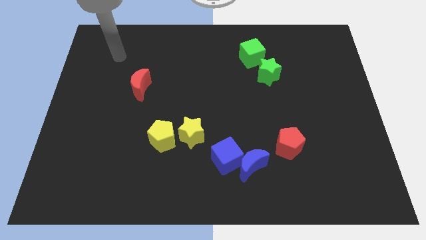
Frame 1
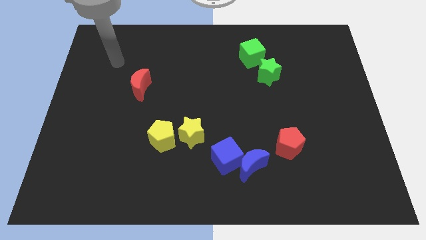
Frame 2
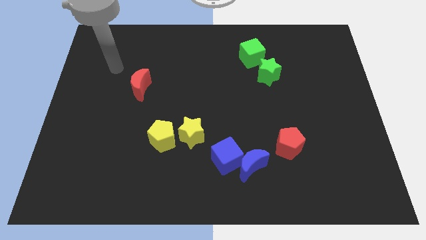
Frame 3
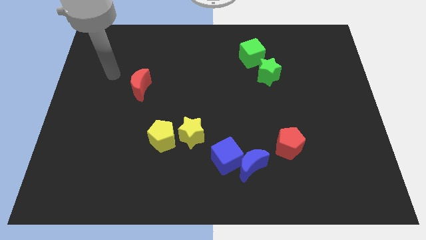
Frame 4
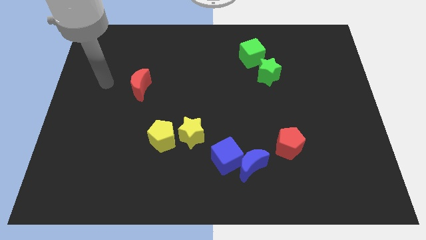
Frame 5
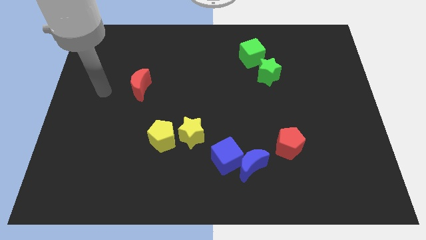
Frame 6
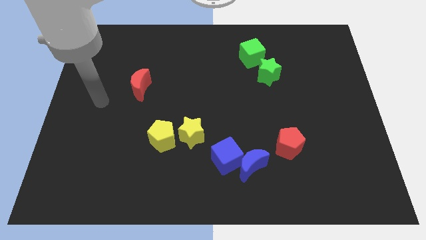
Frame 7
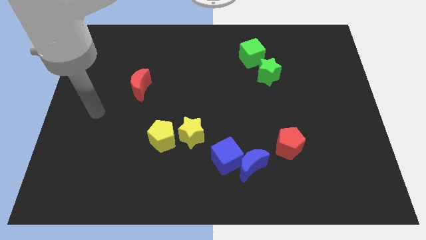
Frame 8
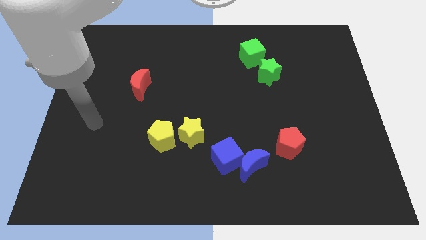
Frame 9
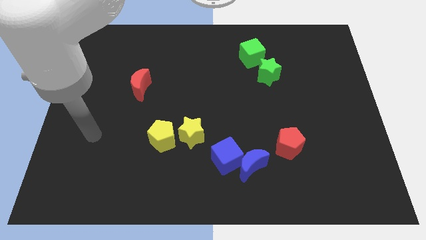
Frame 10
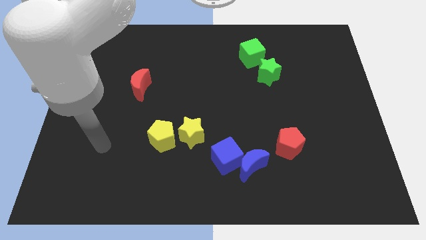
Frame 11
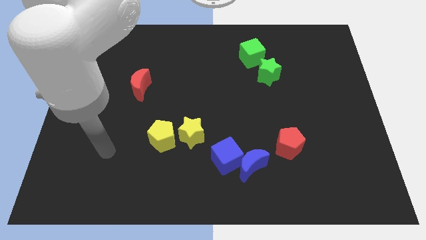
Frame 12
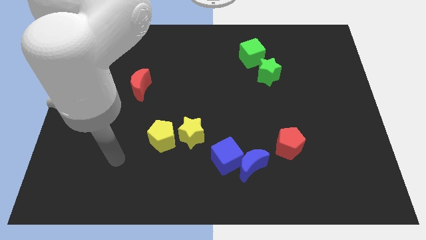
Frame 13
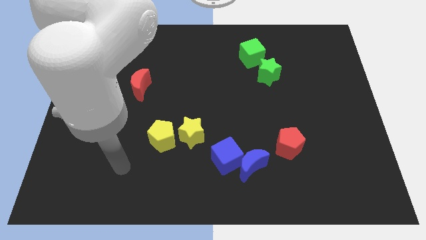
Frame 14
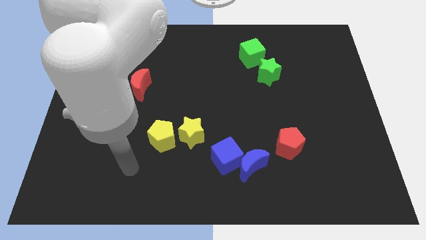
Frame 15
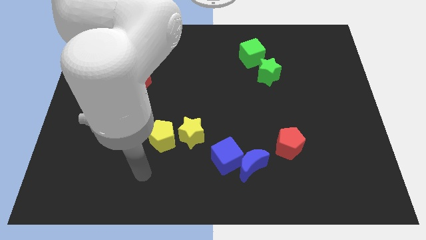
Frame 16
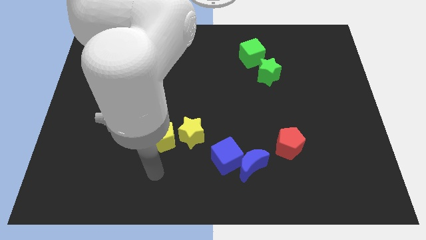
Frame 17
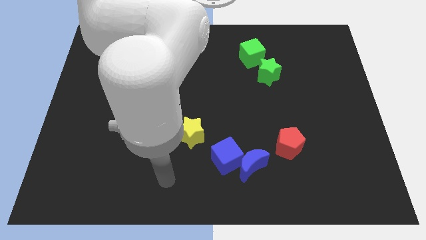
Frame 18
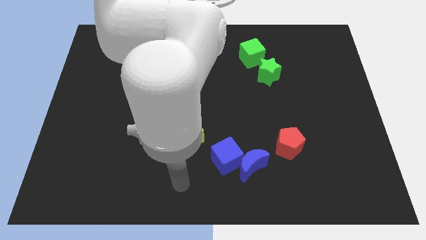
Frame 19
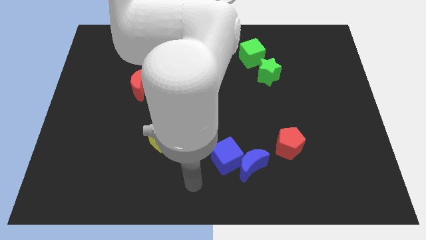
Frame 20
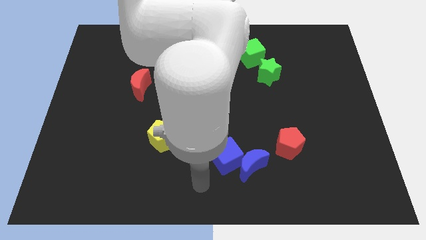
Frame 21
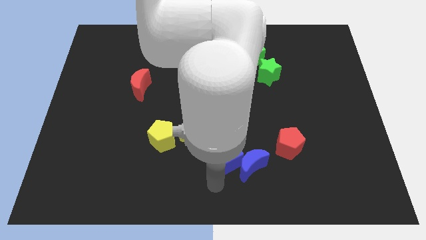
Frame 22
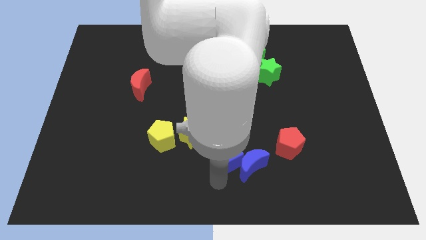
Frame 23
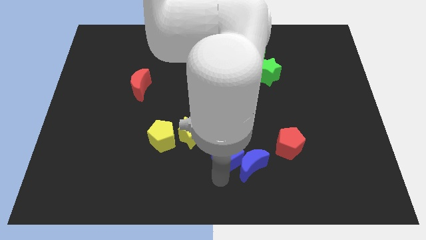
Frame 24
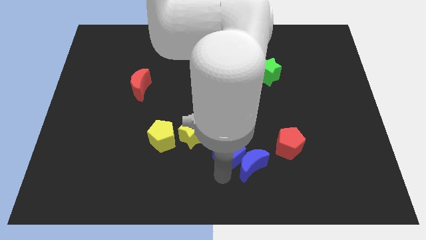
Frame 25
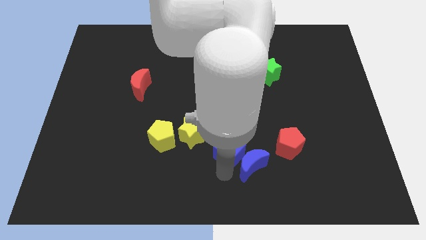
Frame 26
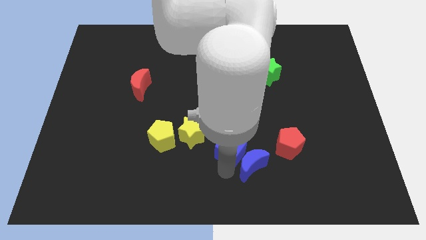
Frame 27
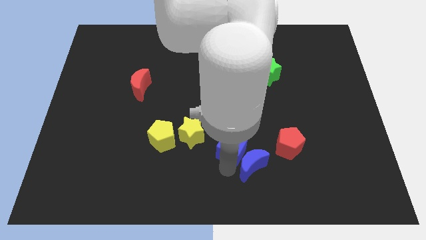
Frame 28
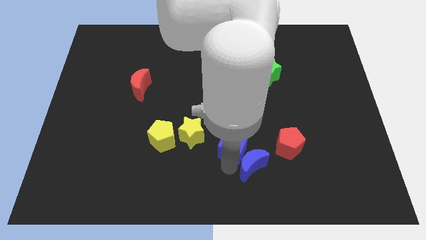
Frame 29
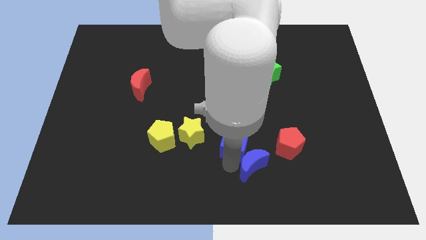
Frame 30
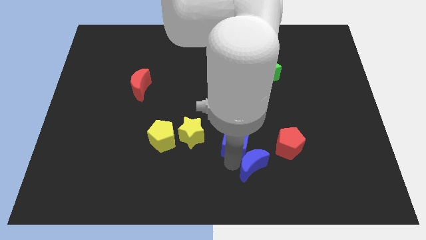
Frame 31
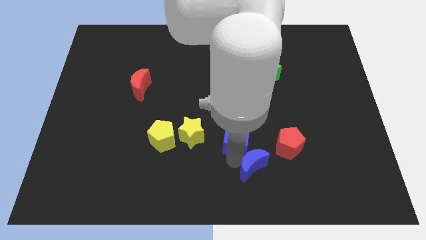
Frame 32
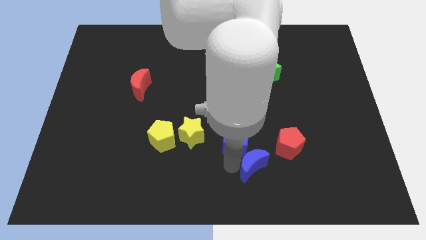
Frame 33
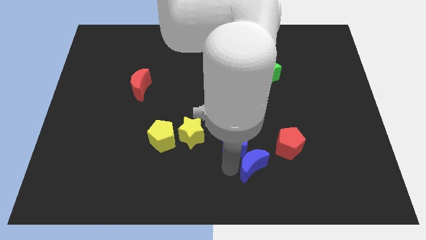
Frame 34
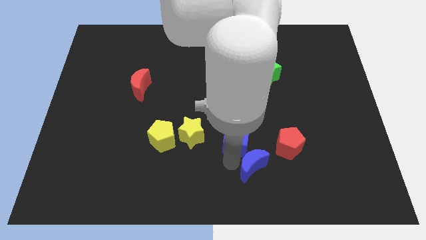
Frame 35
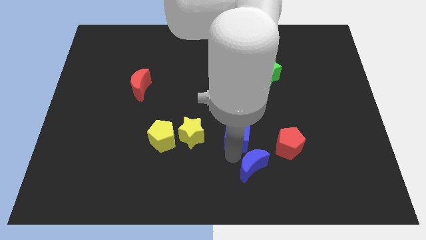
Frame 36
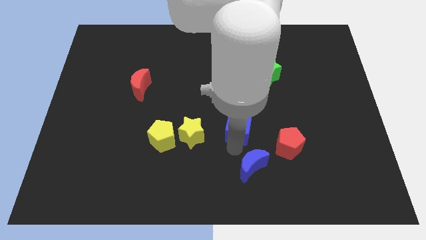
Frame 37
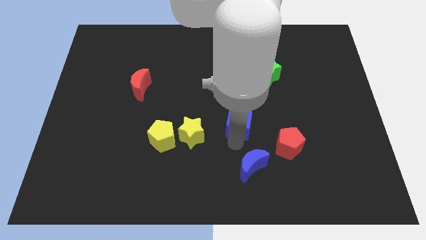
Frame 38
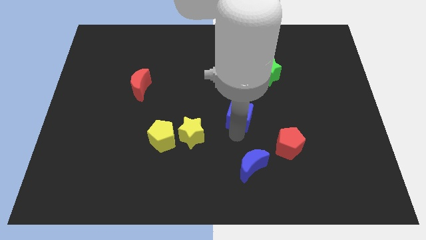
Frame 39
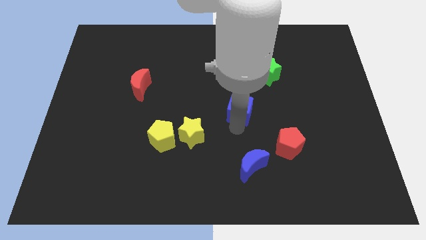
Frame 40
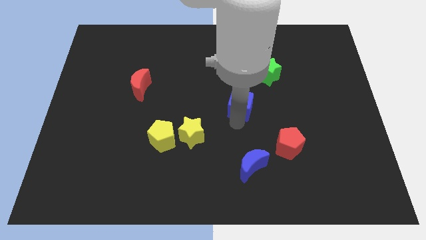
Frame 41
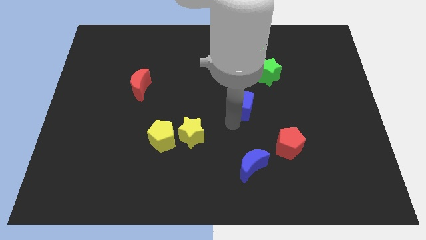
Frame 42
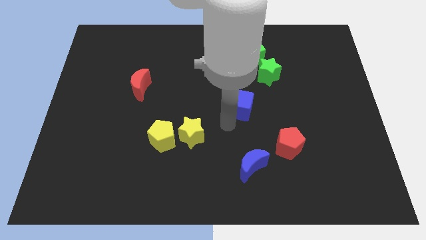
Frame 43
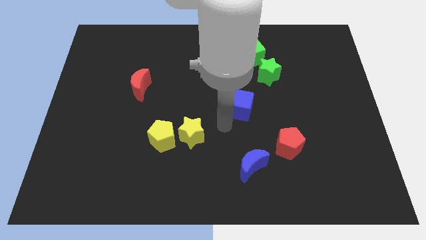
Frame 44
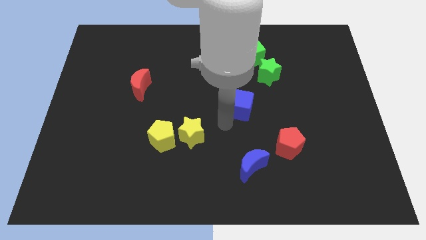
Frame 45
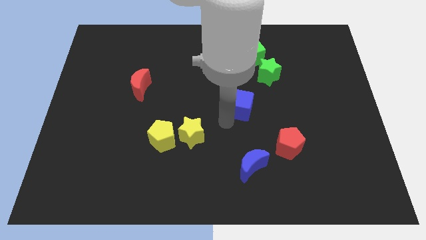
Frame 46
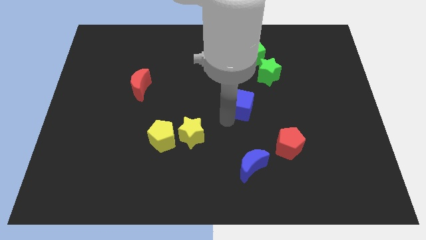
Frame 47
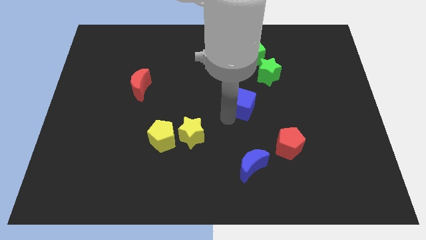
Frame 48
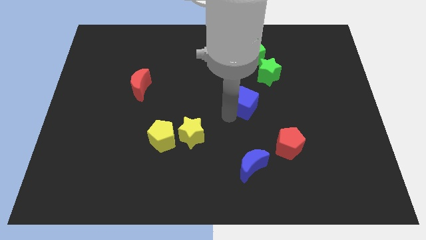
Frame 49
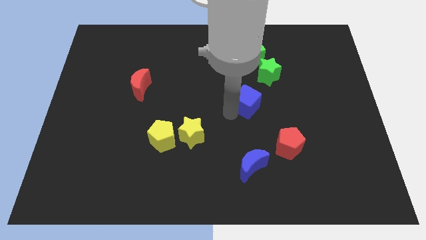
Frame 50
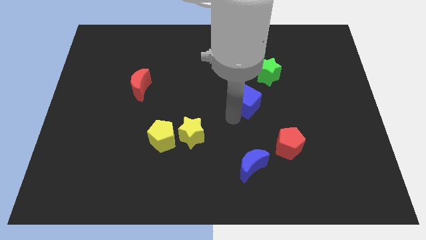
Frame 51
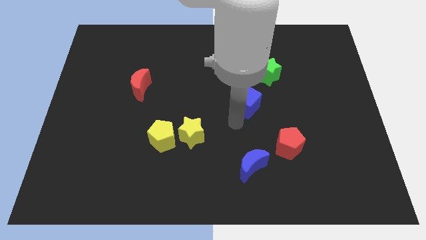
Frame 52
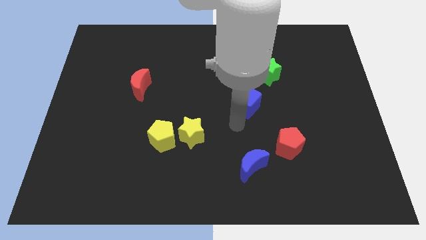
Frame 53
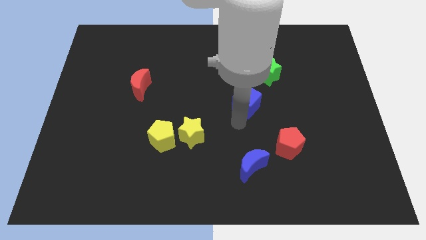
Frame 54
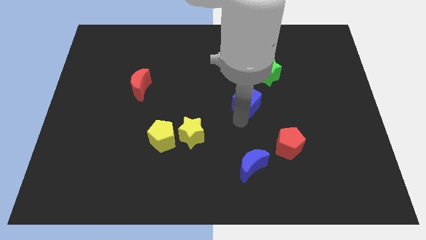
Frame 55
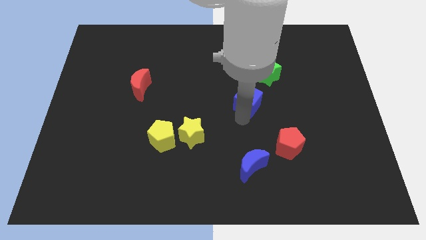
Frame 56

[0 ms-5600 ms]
move the blue cube to the bottom side of the green cube

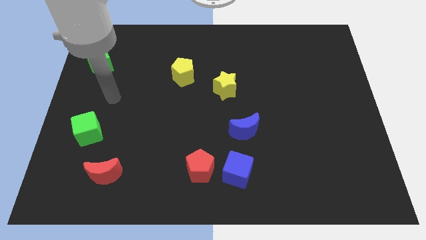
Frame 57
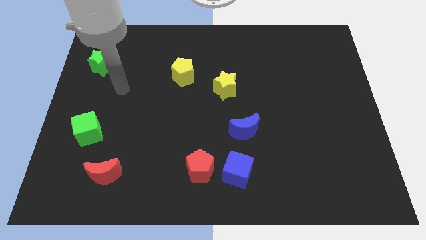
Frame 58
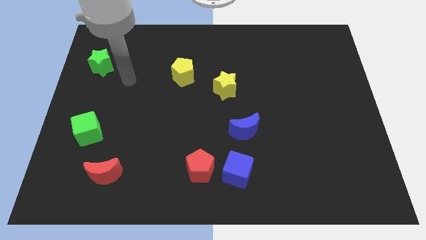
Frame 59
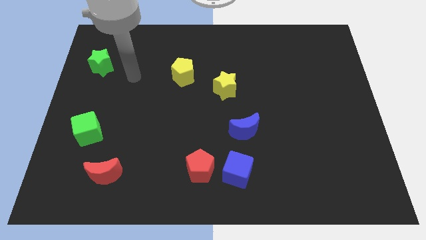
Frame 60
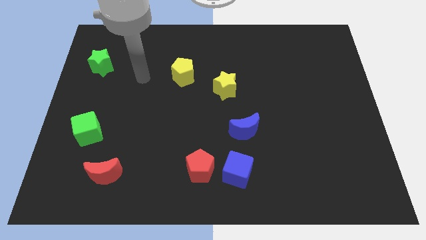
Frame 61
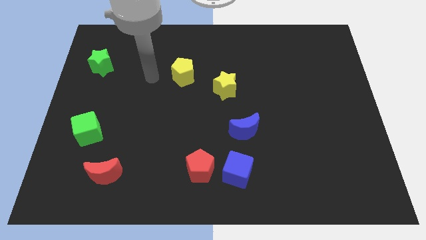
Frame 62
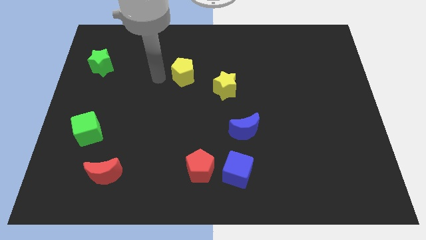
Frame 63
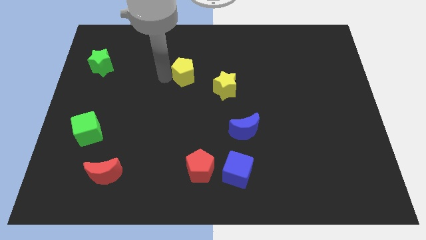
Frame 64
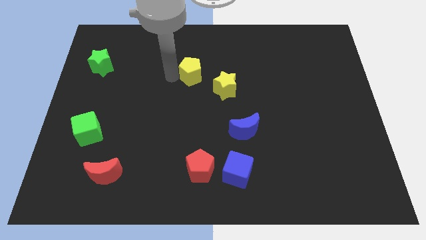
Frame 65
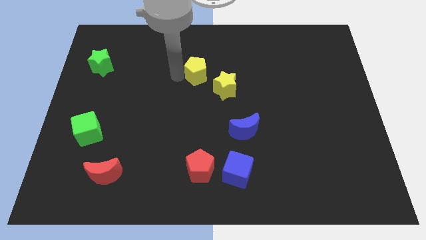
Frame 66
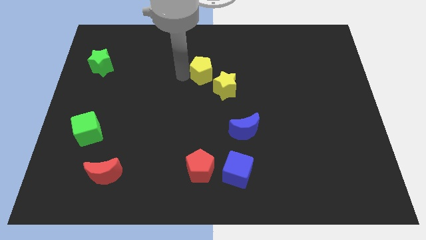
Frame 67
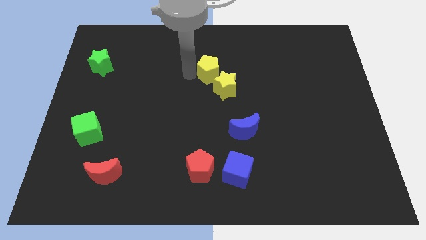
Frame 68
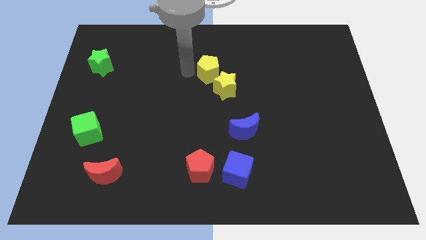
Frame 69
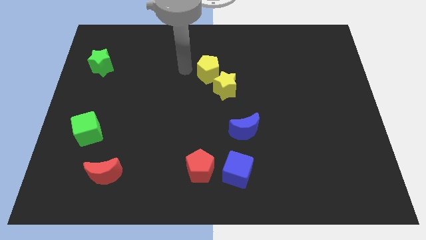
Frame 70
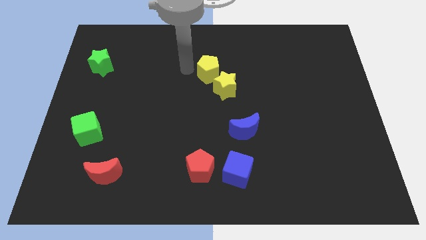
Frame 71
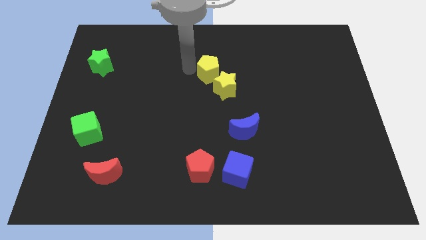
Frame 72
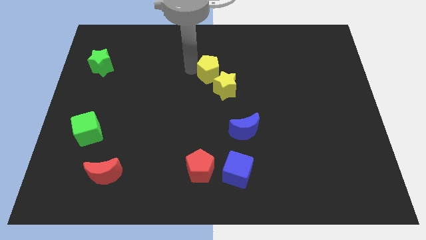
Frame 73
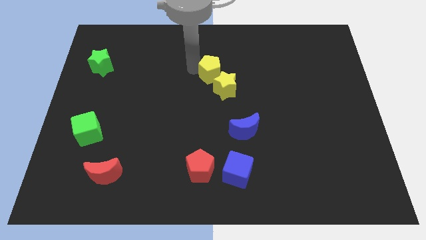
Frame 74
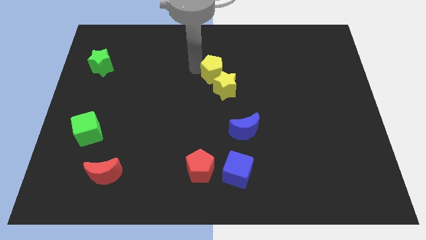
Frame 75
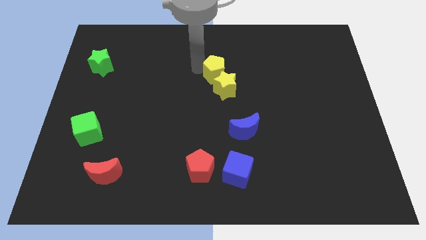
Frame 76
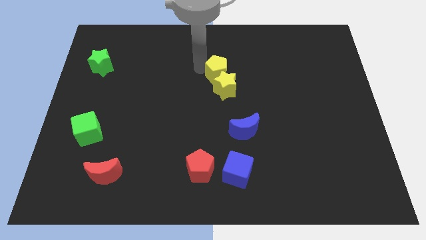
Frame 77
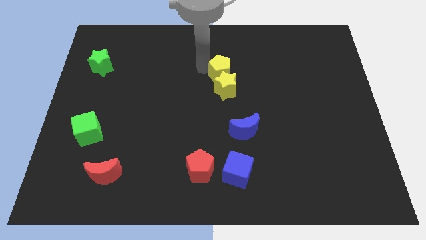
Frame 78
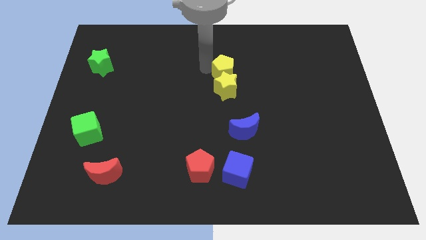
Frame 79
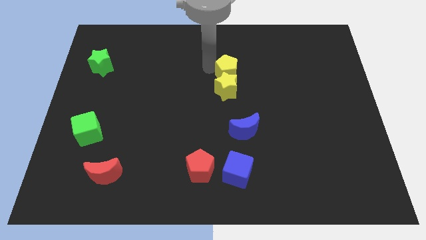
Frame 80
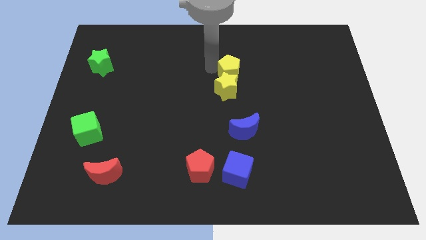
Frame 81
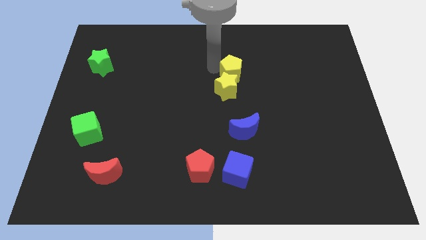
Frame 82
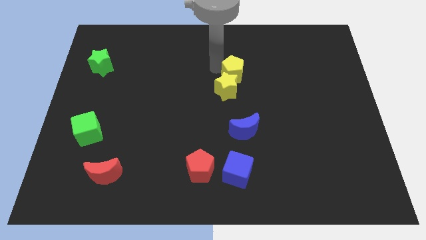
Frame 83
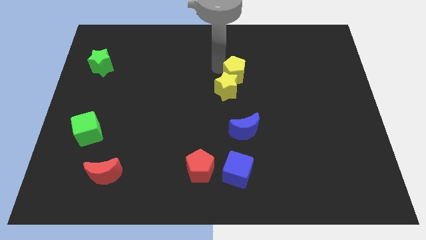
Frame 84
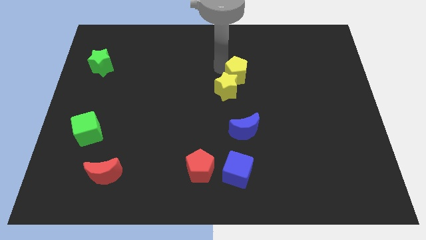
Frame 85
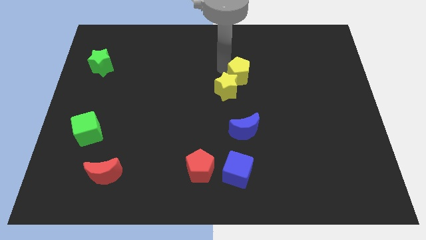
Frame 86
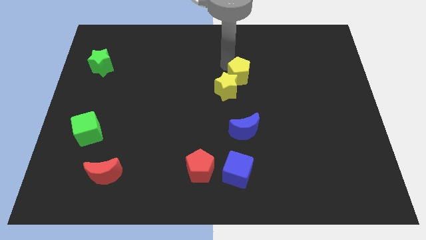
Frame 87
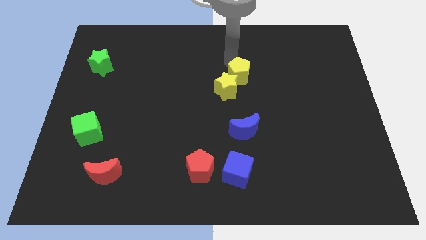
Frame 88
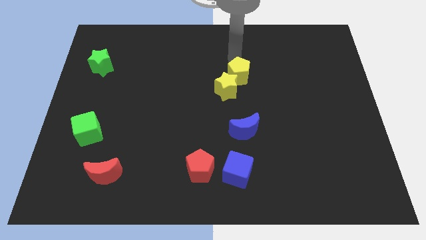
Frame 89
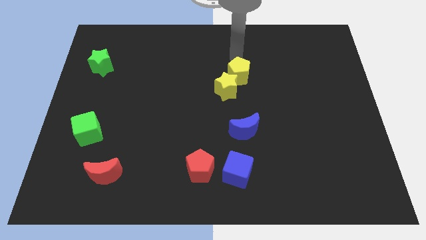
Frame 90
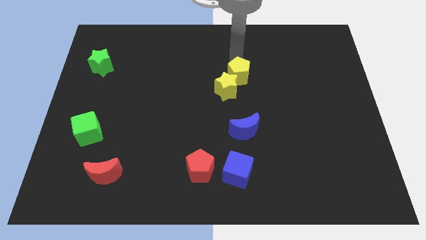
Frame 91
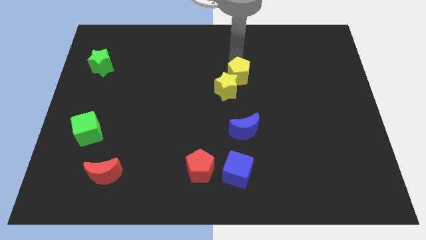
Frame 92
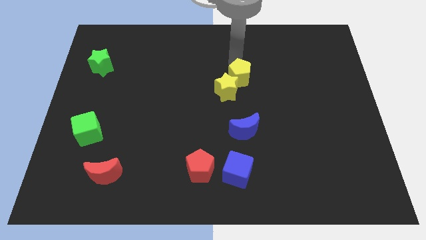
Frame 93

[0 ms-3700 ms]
push the yellow pentagon to the top of the blue moon
